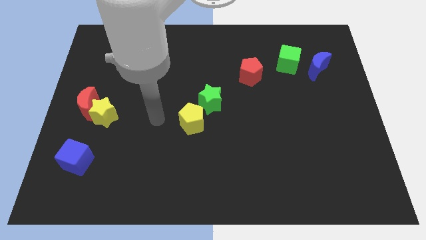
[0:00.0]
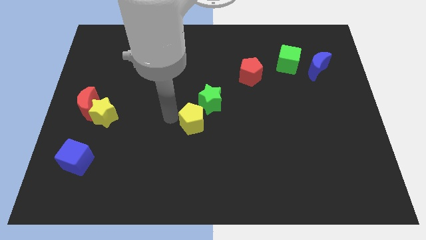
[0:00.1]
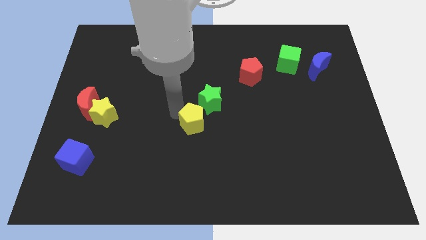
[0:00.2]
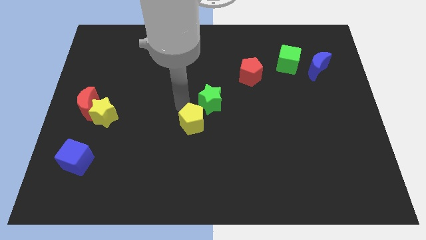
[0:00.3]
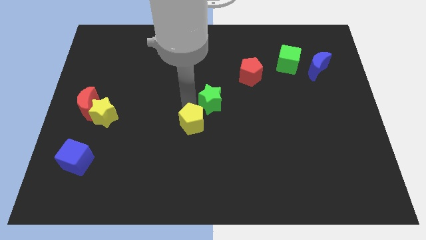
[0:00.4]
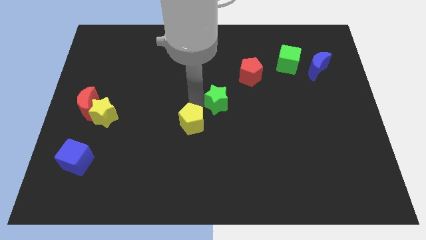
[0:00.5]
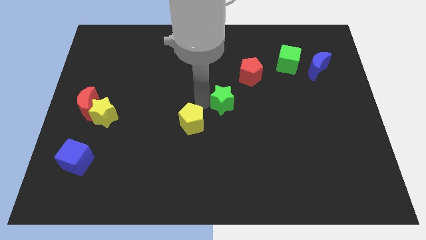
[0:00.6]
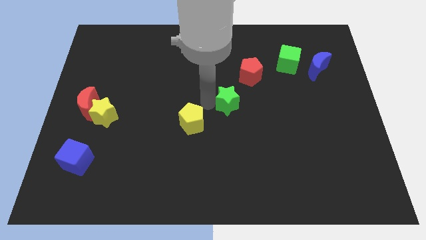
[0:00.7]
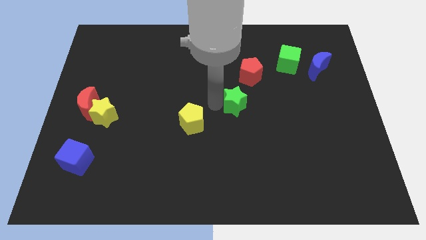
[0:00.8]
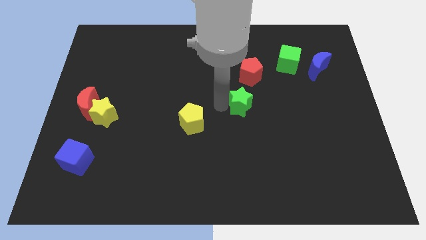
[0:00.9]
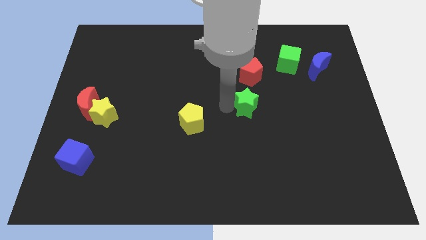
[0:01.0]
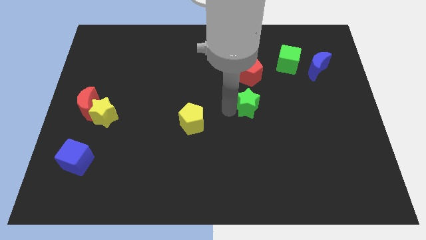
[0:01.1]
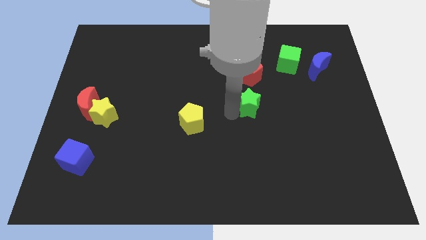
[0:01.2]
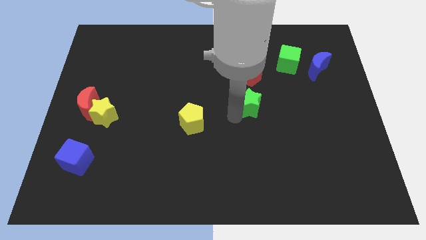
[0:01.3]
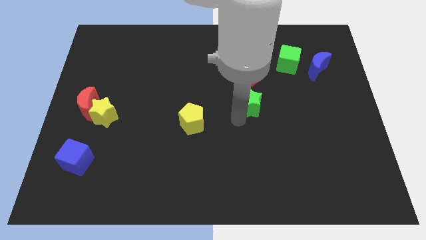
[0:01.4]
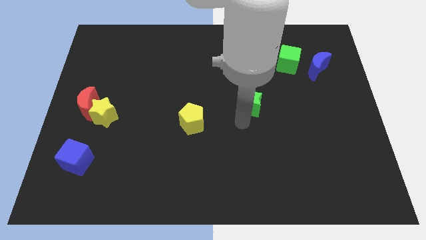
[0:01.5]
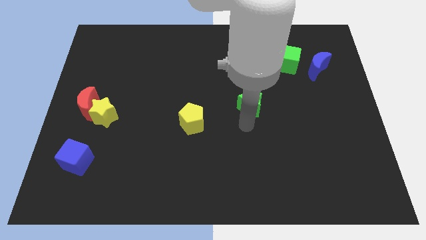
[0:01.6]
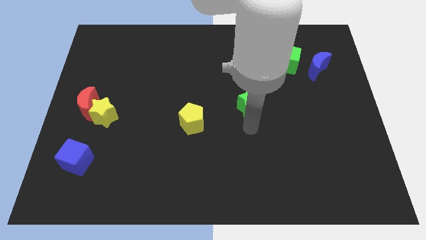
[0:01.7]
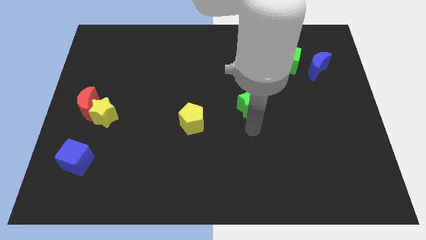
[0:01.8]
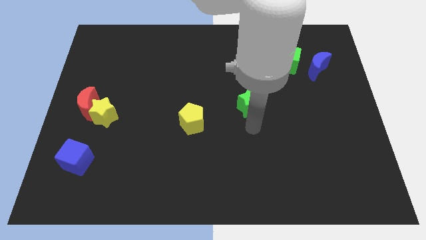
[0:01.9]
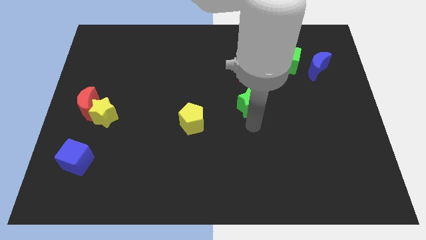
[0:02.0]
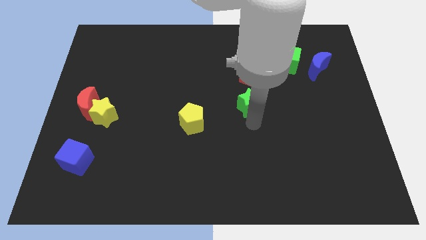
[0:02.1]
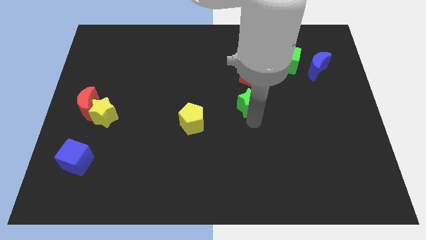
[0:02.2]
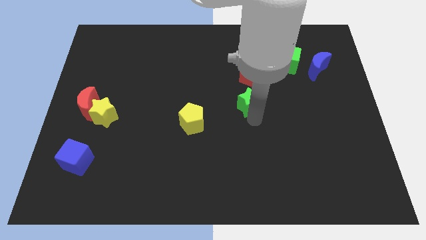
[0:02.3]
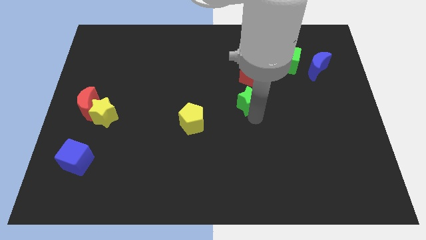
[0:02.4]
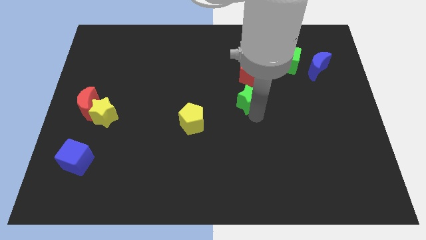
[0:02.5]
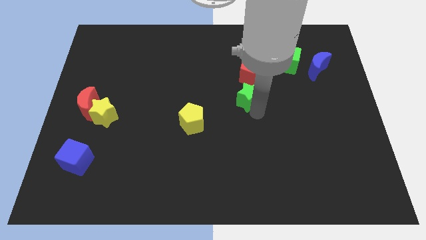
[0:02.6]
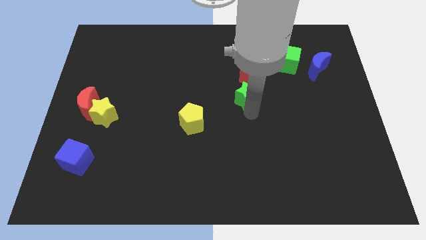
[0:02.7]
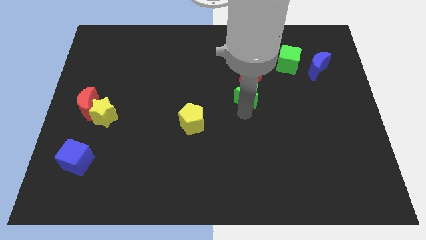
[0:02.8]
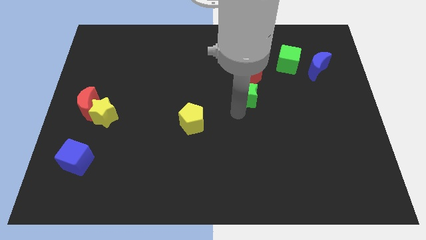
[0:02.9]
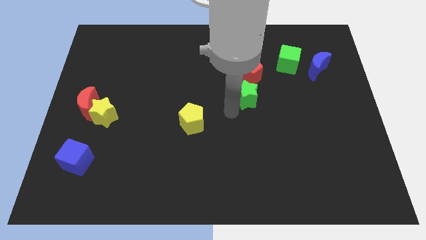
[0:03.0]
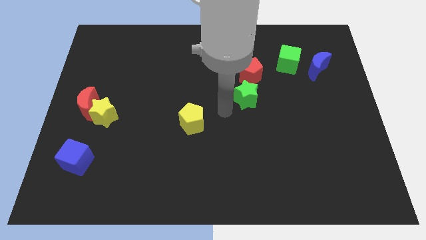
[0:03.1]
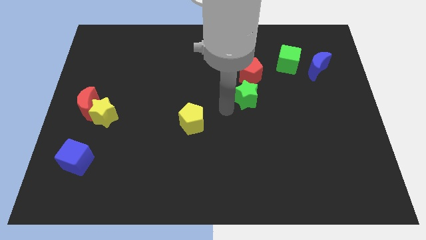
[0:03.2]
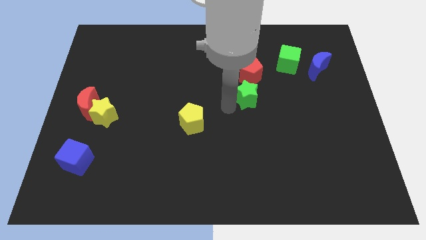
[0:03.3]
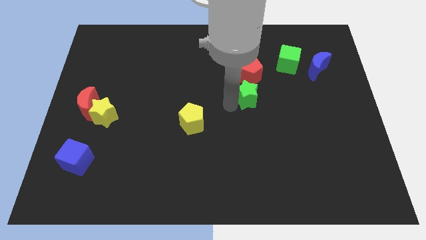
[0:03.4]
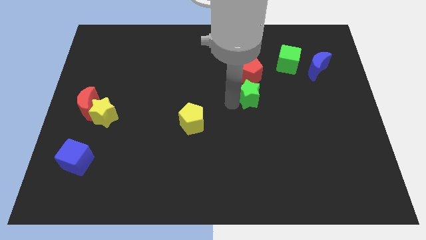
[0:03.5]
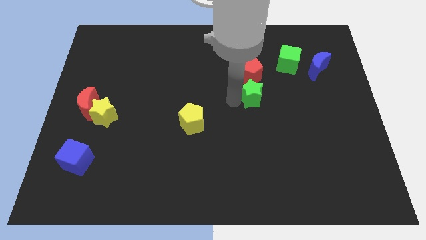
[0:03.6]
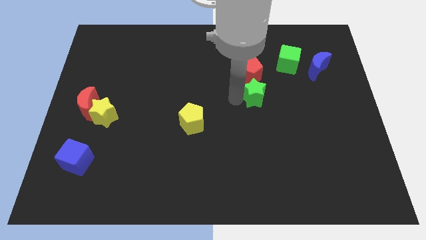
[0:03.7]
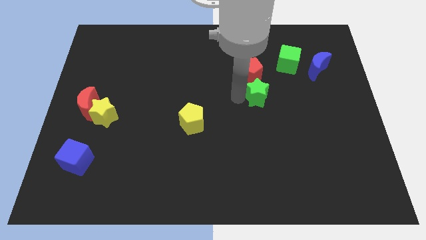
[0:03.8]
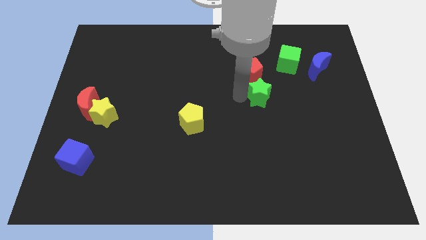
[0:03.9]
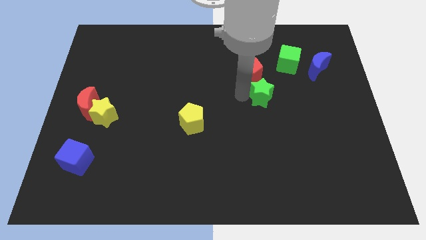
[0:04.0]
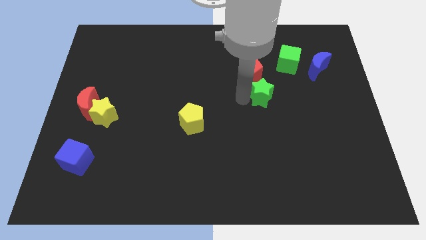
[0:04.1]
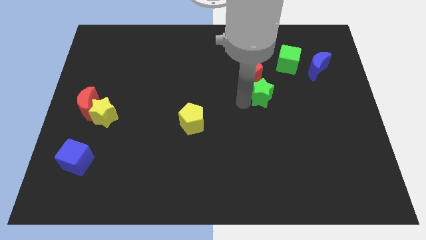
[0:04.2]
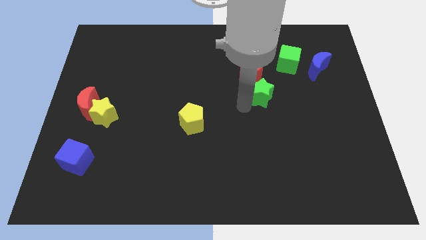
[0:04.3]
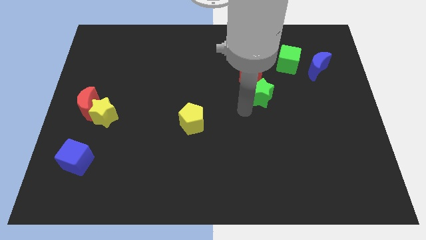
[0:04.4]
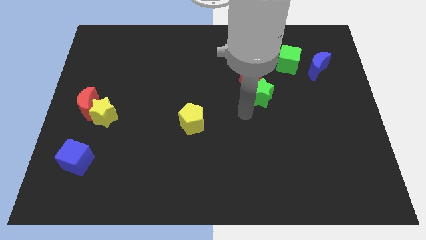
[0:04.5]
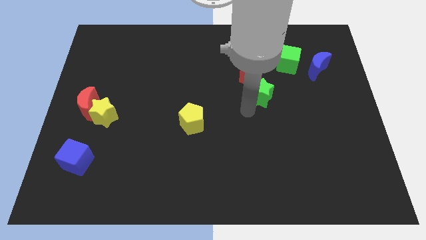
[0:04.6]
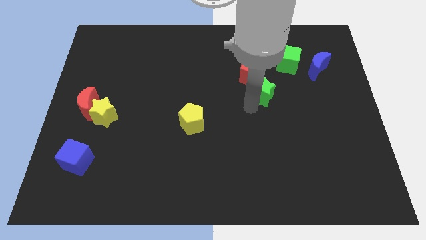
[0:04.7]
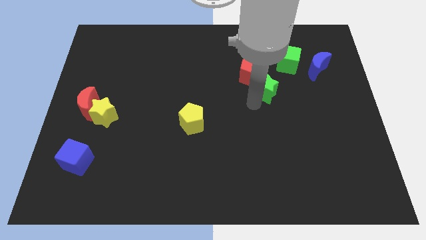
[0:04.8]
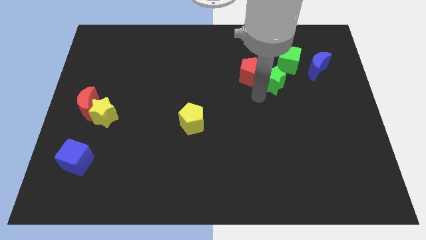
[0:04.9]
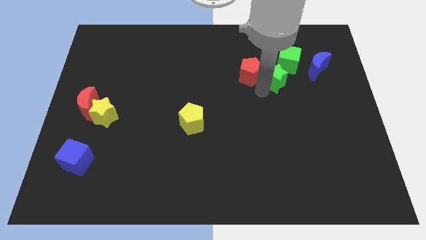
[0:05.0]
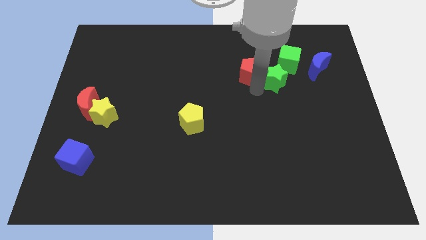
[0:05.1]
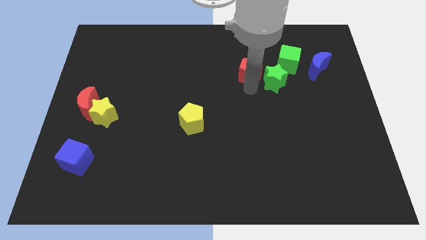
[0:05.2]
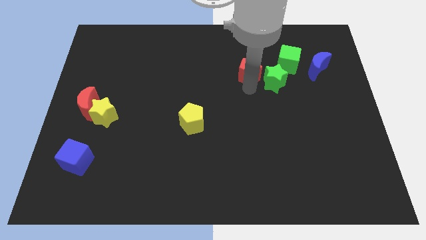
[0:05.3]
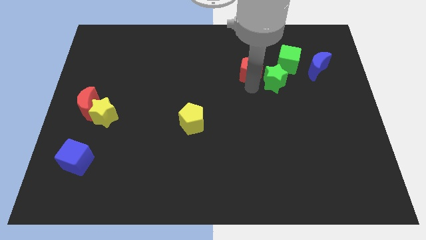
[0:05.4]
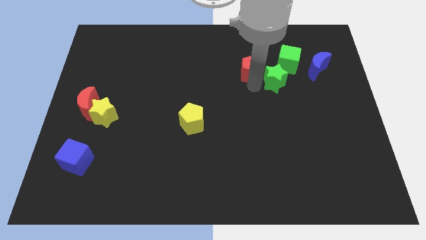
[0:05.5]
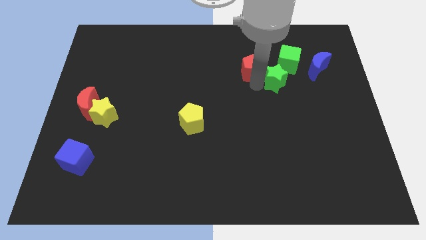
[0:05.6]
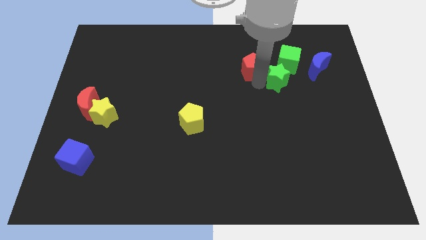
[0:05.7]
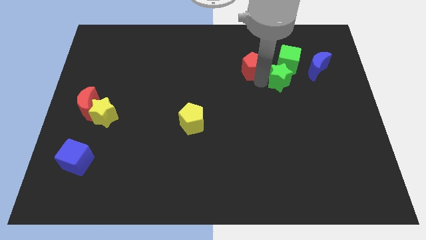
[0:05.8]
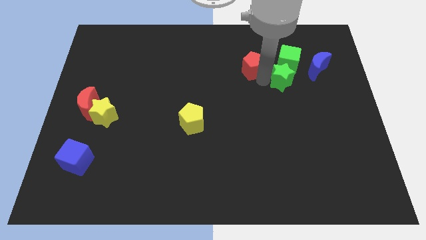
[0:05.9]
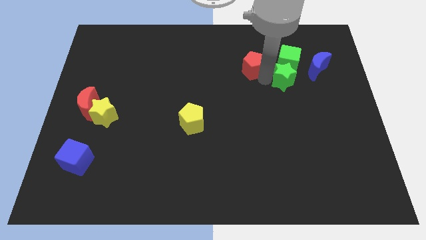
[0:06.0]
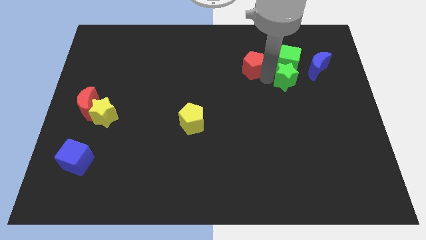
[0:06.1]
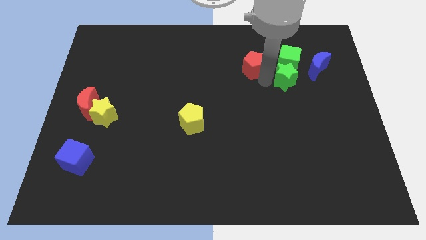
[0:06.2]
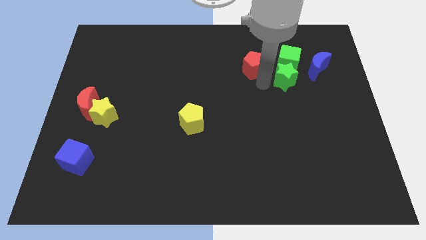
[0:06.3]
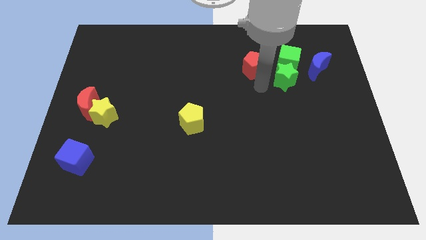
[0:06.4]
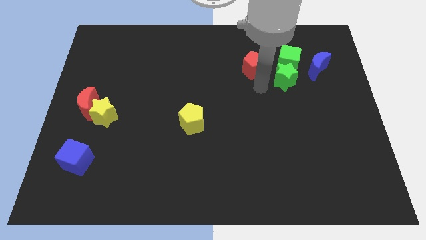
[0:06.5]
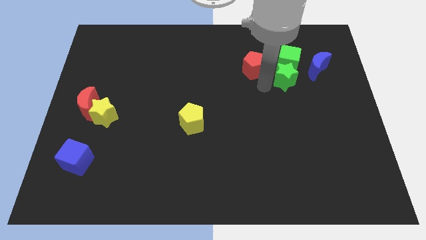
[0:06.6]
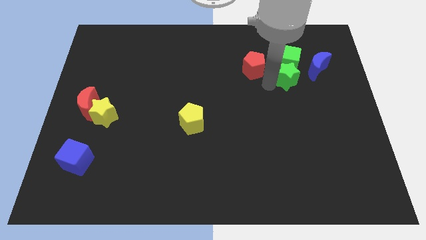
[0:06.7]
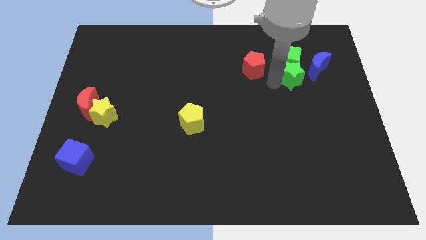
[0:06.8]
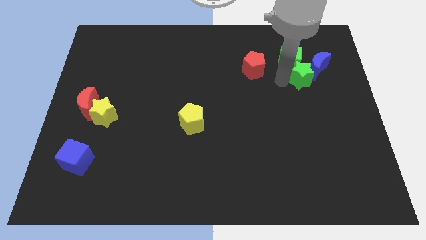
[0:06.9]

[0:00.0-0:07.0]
slide the green star towards the blue moon
